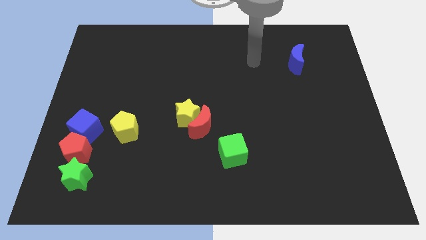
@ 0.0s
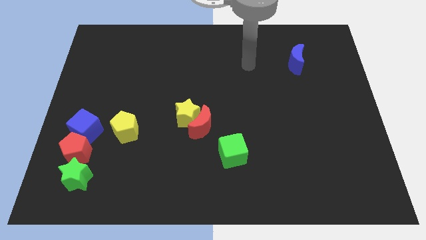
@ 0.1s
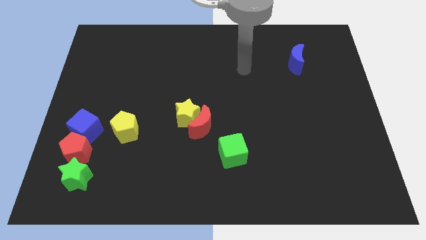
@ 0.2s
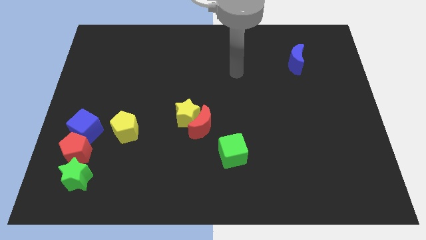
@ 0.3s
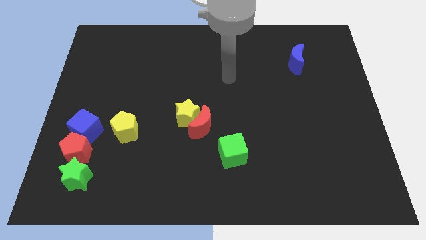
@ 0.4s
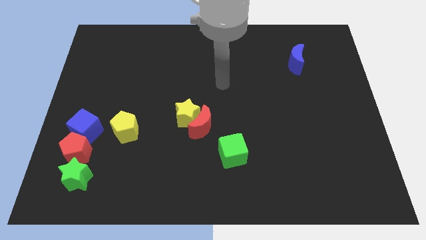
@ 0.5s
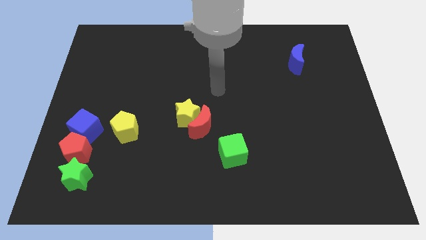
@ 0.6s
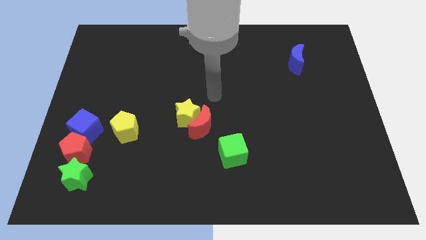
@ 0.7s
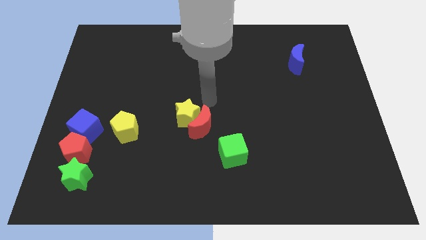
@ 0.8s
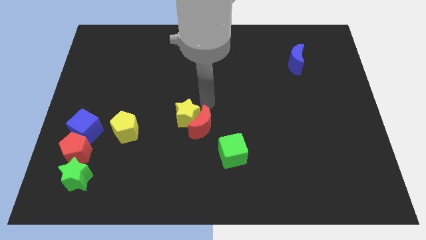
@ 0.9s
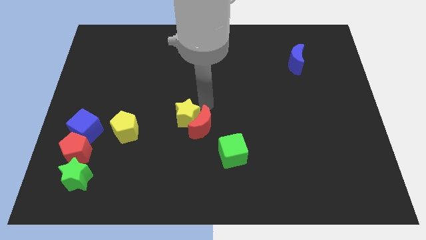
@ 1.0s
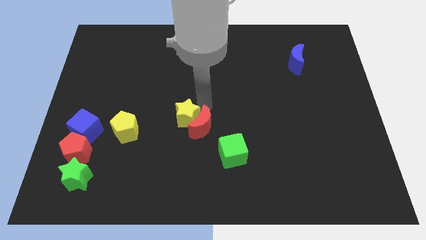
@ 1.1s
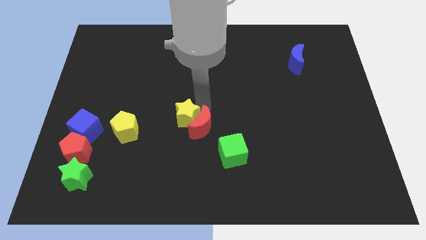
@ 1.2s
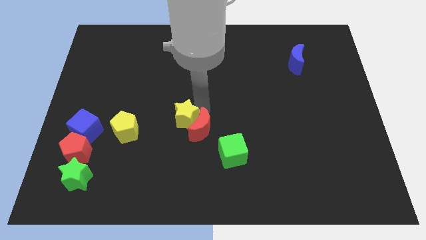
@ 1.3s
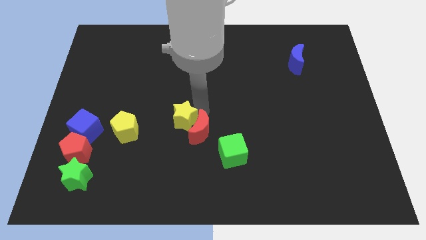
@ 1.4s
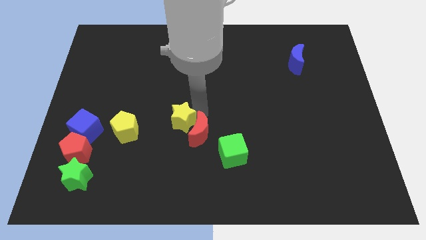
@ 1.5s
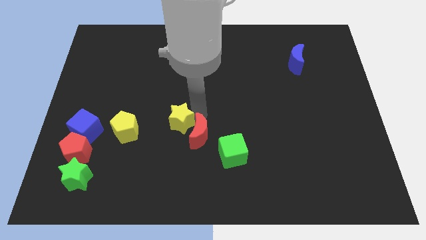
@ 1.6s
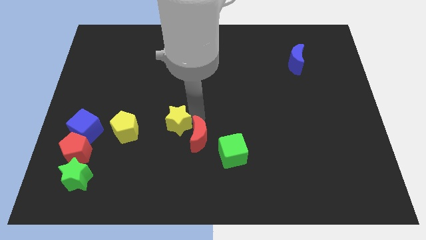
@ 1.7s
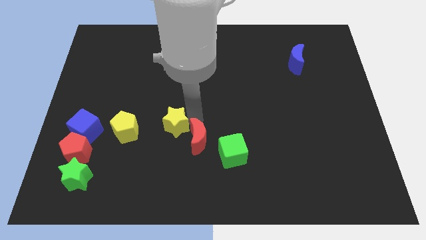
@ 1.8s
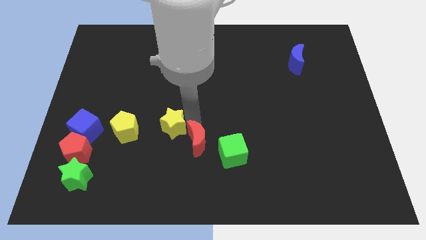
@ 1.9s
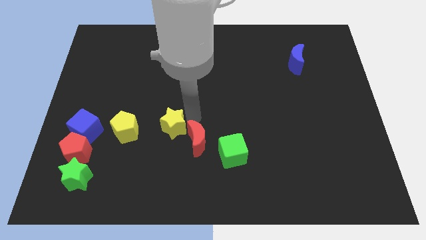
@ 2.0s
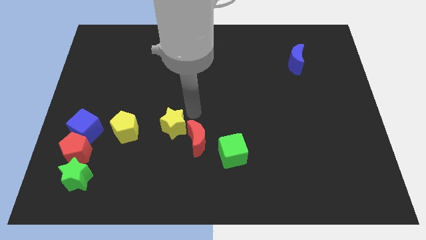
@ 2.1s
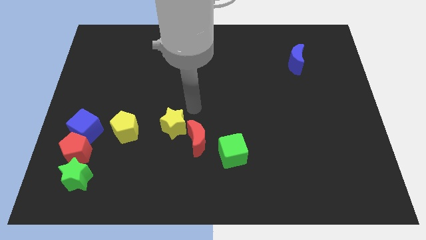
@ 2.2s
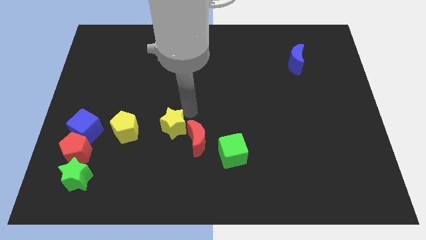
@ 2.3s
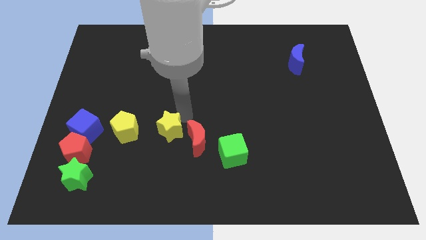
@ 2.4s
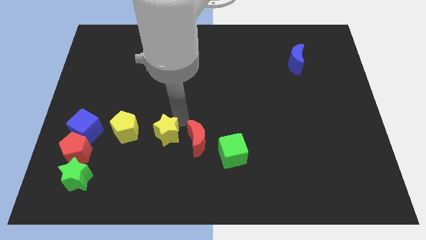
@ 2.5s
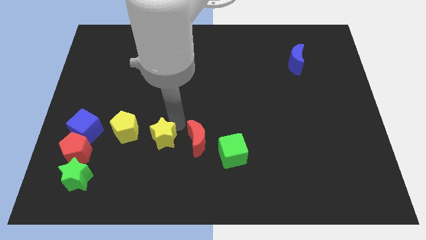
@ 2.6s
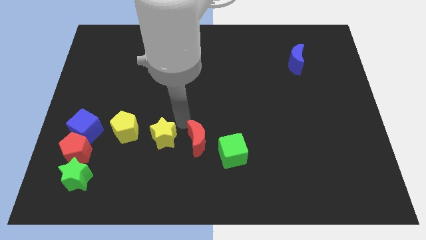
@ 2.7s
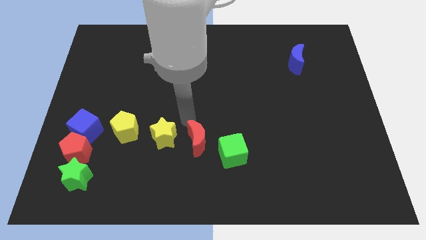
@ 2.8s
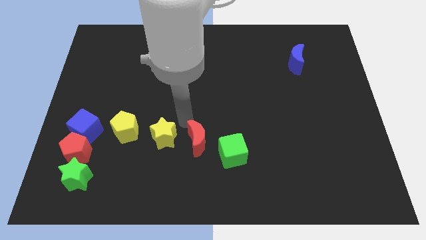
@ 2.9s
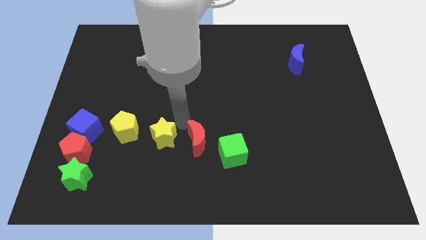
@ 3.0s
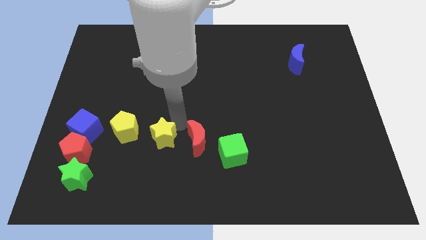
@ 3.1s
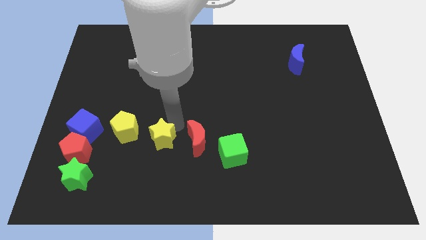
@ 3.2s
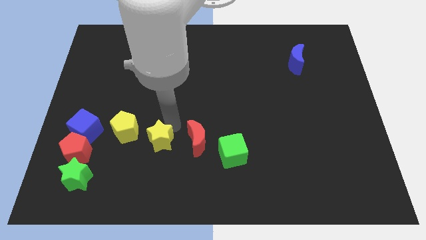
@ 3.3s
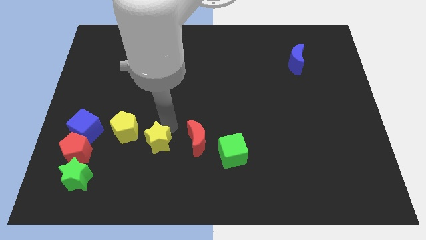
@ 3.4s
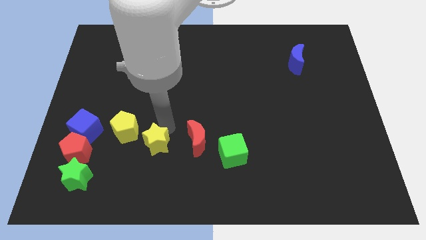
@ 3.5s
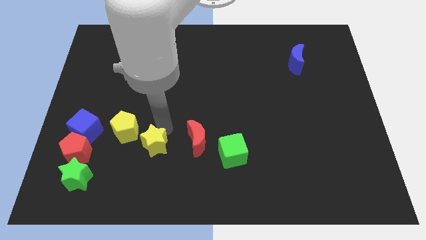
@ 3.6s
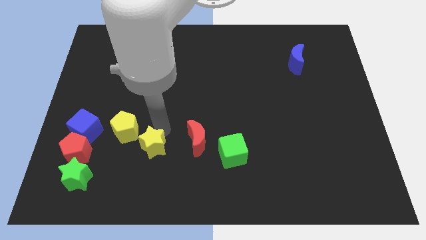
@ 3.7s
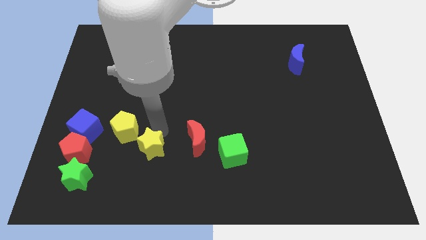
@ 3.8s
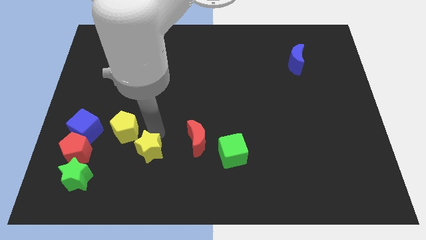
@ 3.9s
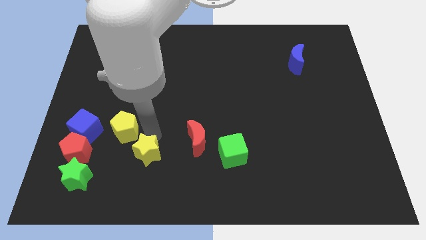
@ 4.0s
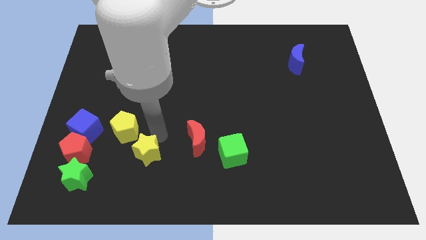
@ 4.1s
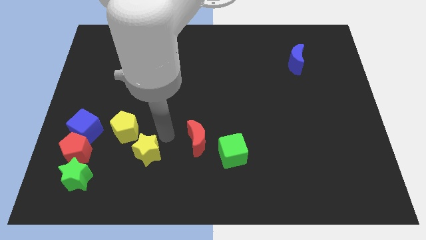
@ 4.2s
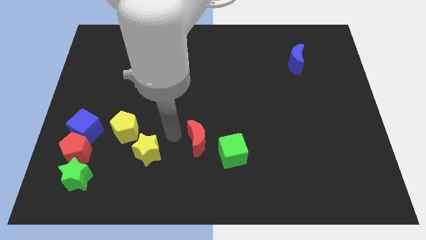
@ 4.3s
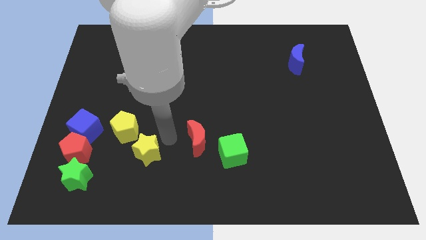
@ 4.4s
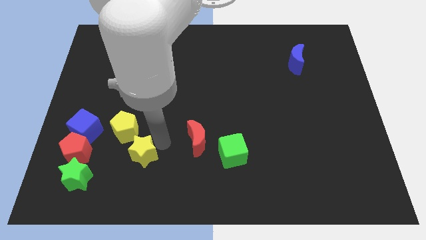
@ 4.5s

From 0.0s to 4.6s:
put the yellow star below the yellow pentagon

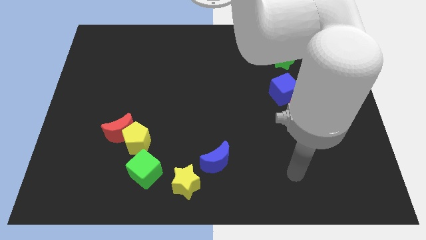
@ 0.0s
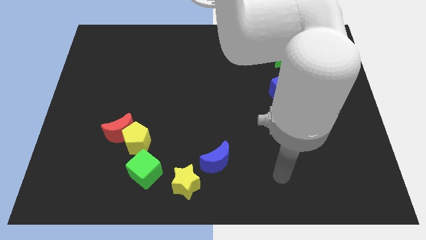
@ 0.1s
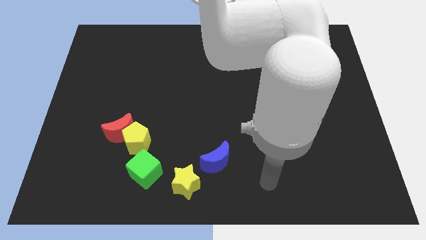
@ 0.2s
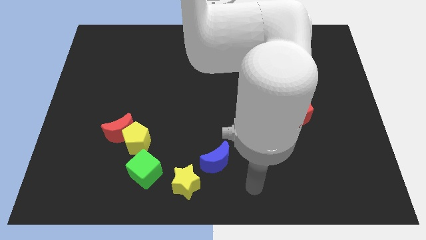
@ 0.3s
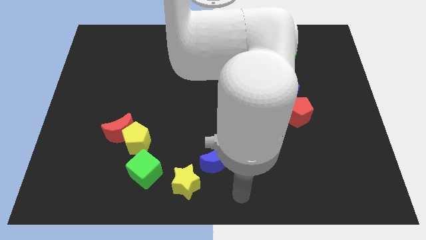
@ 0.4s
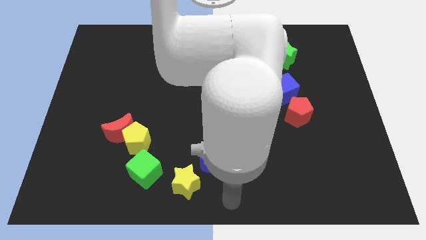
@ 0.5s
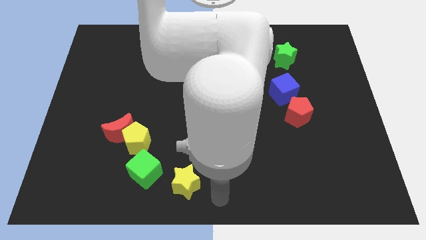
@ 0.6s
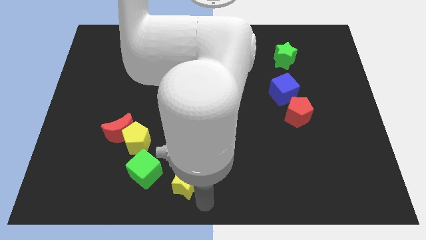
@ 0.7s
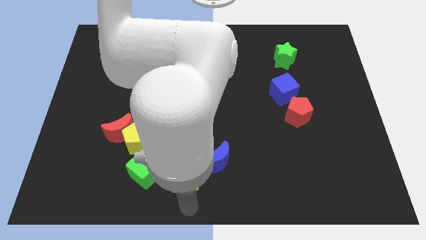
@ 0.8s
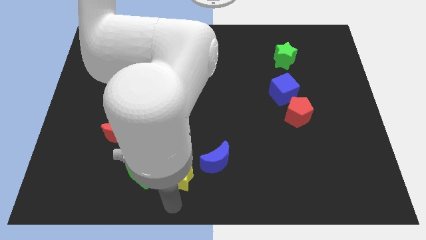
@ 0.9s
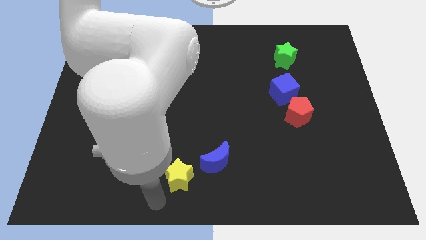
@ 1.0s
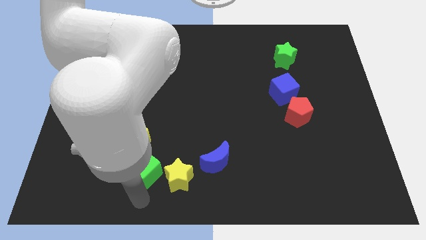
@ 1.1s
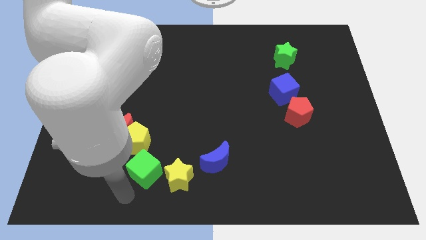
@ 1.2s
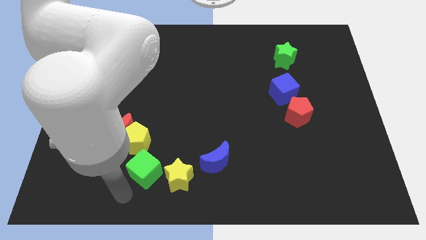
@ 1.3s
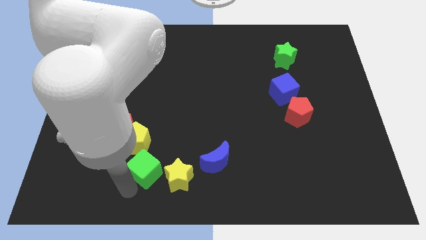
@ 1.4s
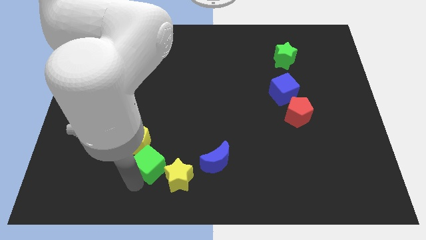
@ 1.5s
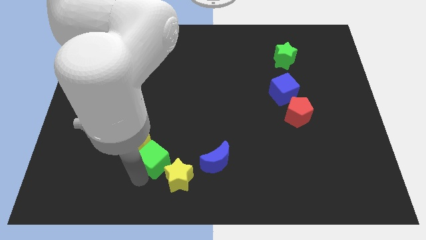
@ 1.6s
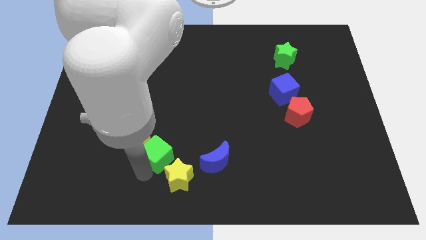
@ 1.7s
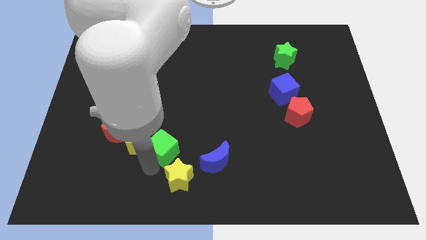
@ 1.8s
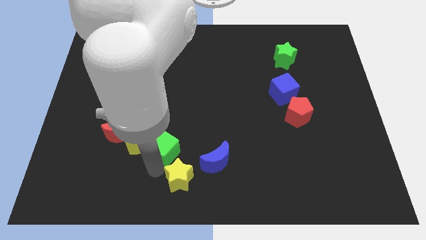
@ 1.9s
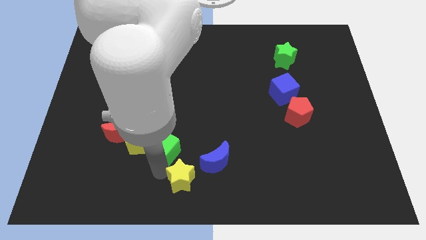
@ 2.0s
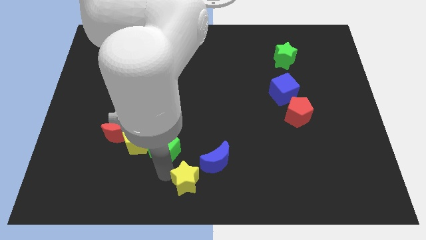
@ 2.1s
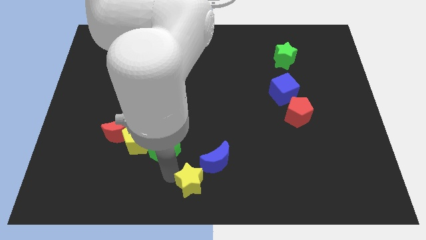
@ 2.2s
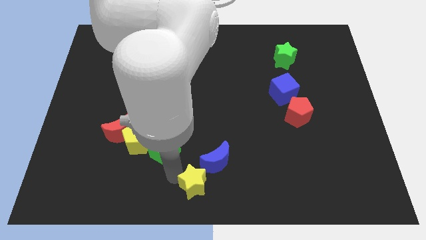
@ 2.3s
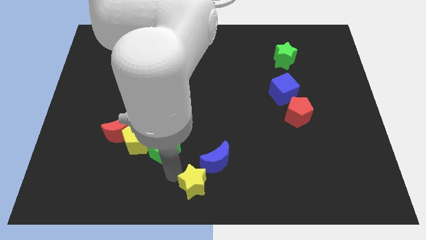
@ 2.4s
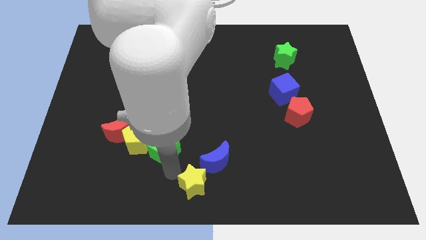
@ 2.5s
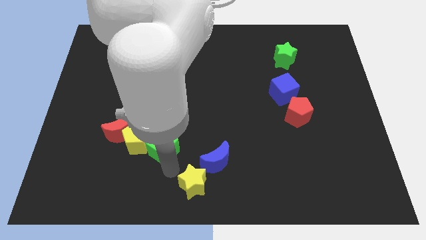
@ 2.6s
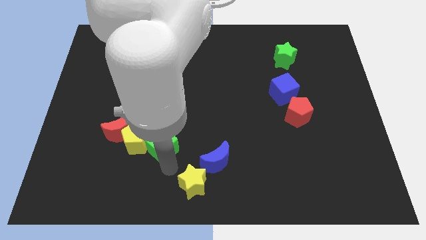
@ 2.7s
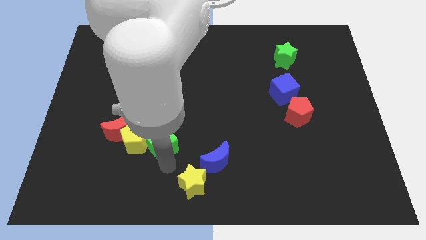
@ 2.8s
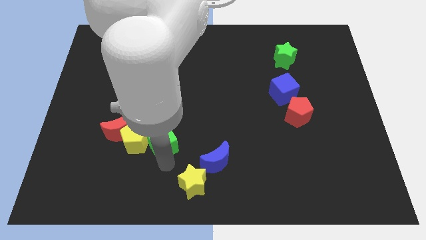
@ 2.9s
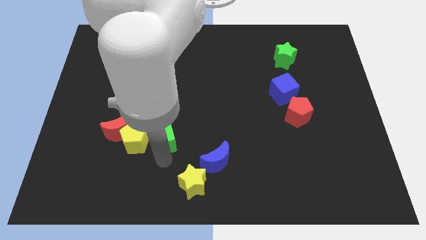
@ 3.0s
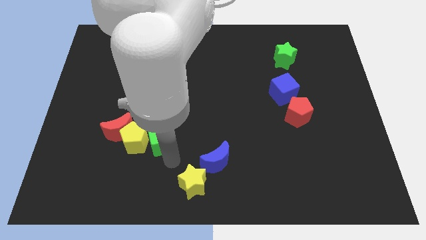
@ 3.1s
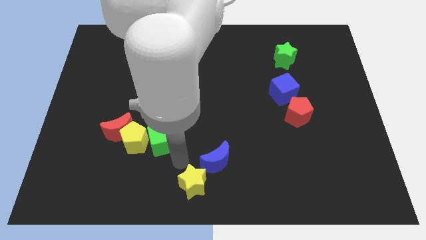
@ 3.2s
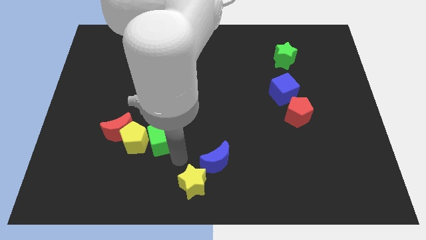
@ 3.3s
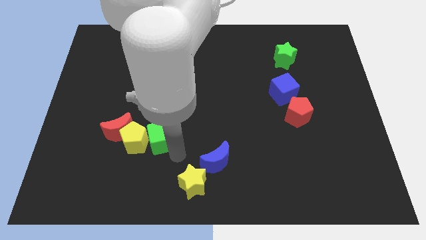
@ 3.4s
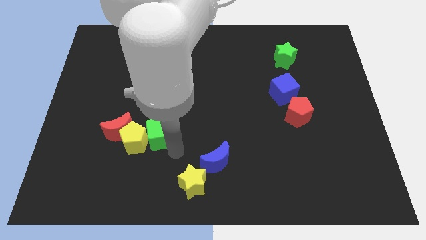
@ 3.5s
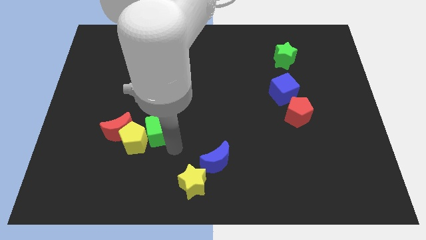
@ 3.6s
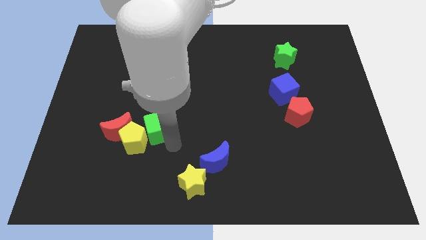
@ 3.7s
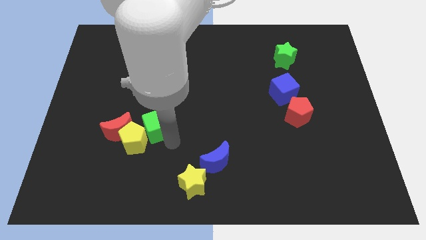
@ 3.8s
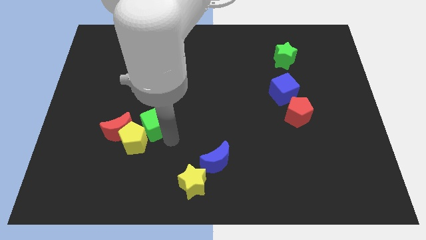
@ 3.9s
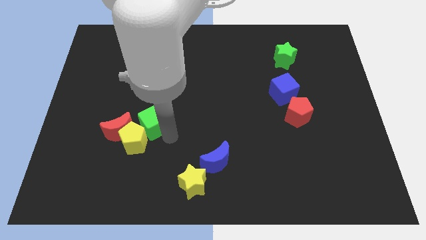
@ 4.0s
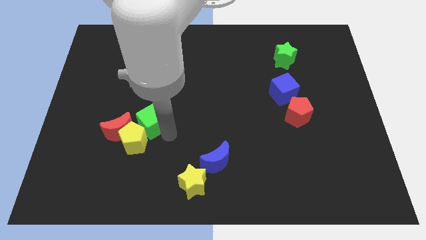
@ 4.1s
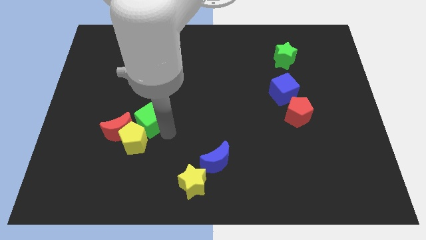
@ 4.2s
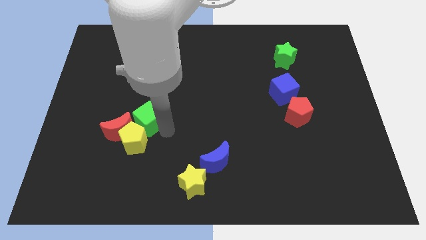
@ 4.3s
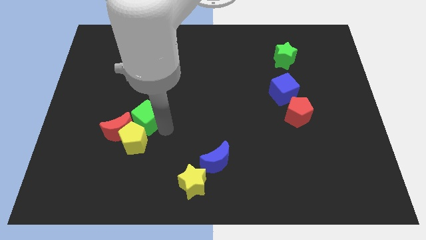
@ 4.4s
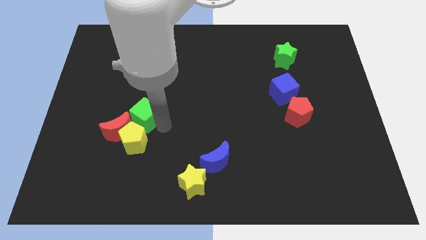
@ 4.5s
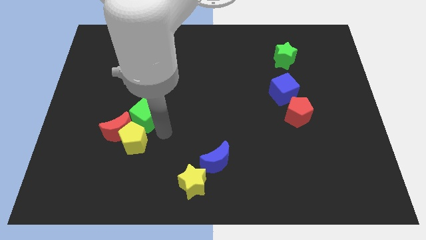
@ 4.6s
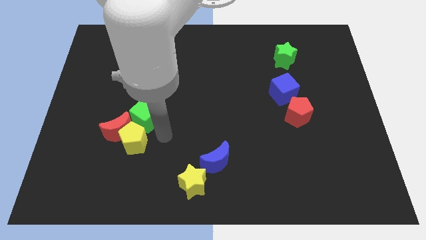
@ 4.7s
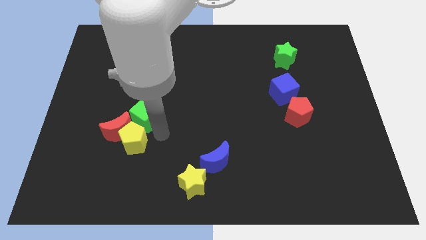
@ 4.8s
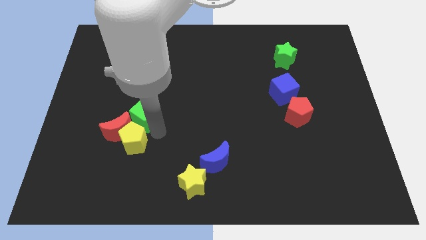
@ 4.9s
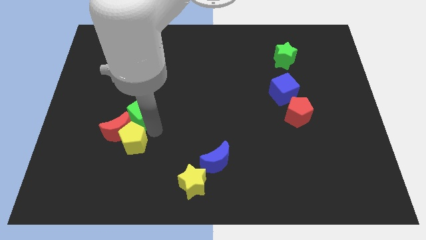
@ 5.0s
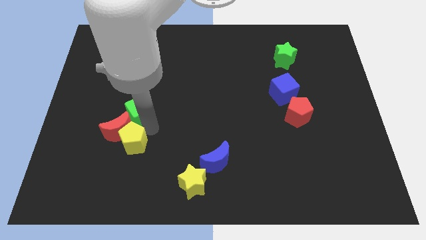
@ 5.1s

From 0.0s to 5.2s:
push the green cube above the red moon
